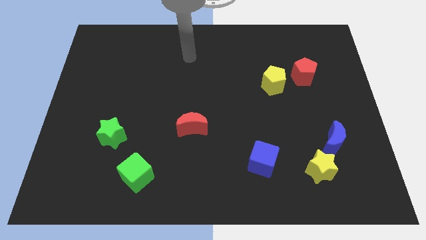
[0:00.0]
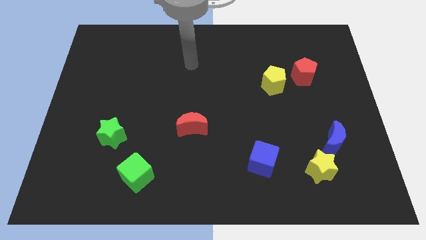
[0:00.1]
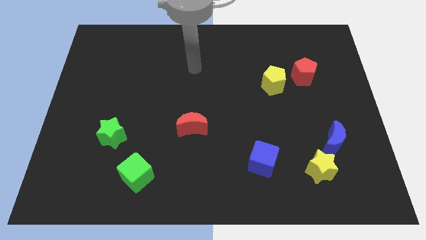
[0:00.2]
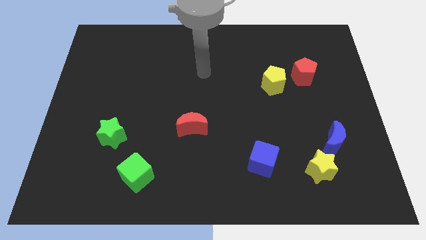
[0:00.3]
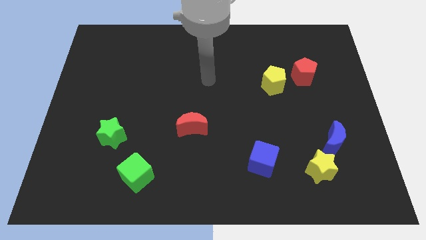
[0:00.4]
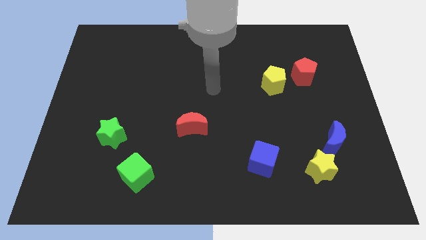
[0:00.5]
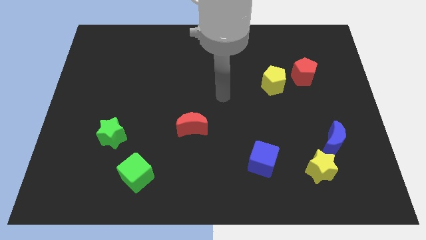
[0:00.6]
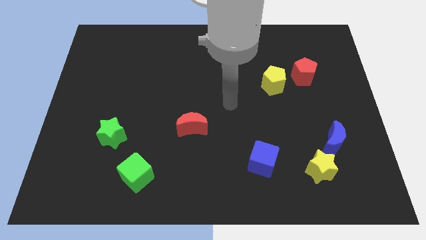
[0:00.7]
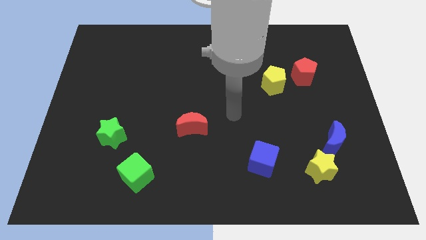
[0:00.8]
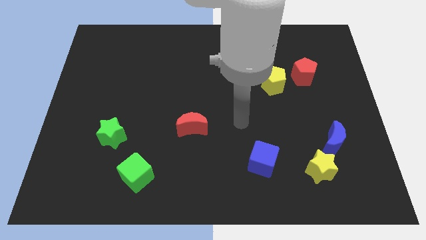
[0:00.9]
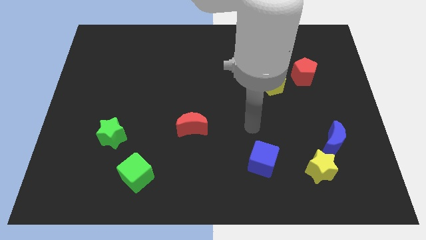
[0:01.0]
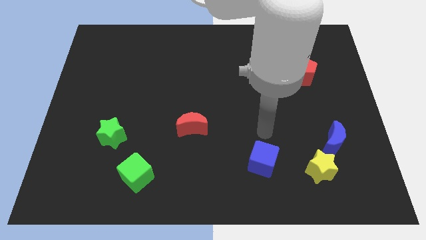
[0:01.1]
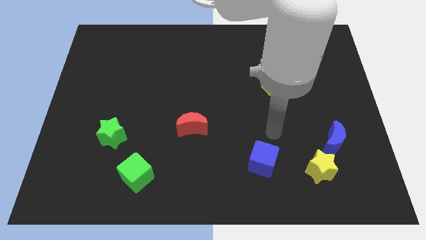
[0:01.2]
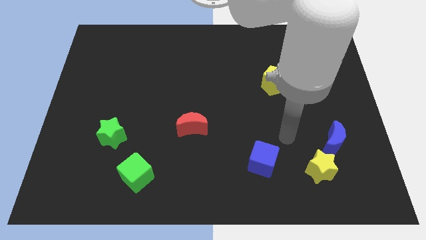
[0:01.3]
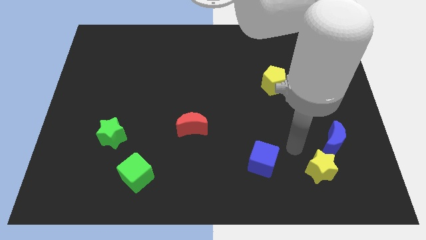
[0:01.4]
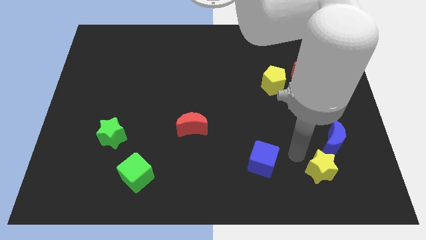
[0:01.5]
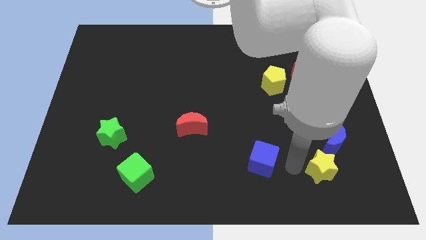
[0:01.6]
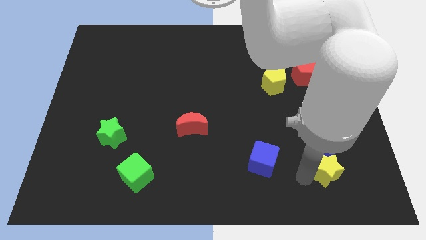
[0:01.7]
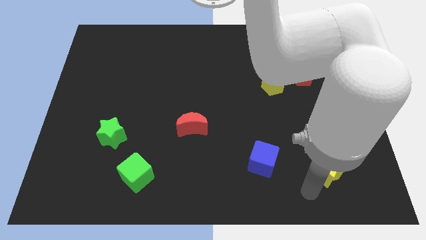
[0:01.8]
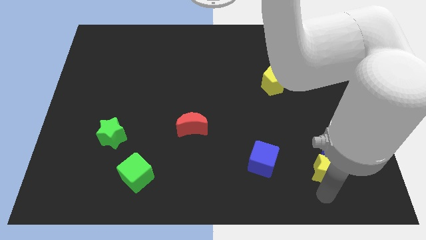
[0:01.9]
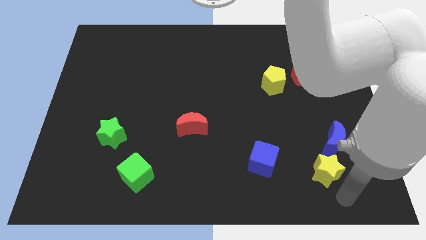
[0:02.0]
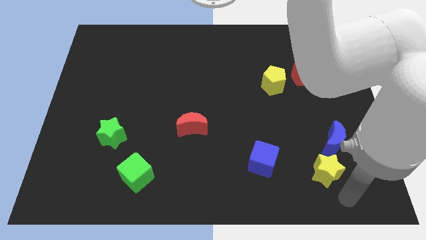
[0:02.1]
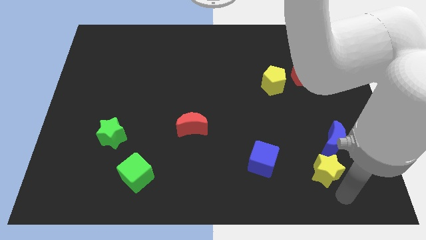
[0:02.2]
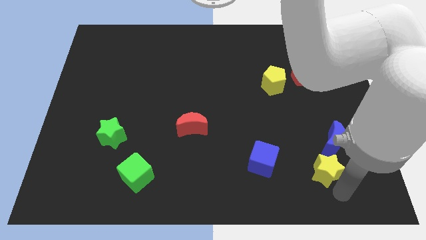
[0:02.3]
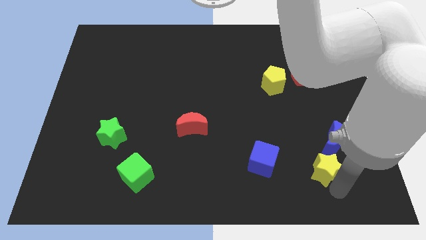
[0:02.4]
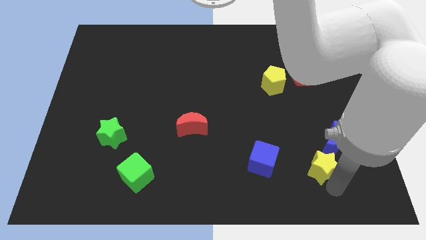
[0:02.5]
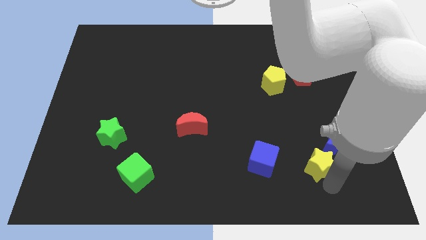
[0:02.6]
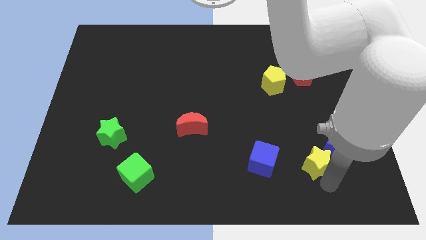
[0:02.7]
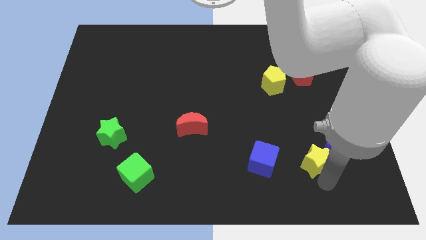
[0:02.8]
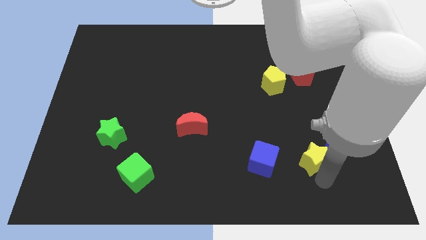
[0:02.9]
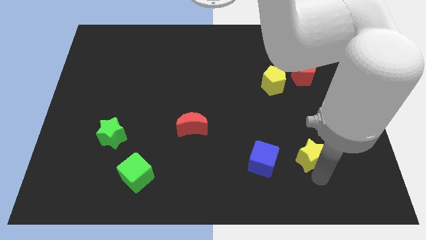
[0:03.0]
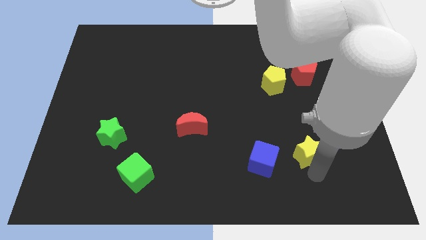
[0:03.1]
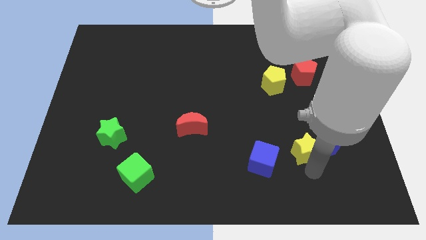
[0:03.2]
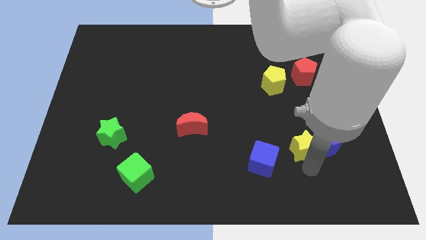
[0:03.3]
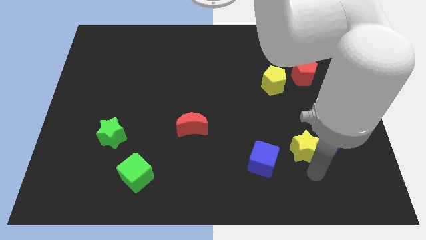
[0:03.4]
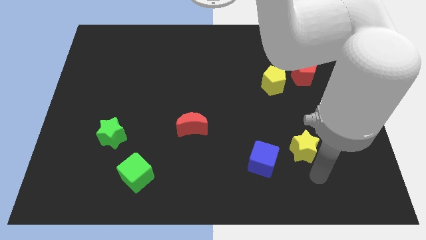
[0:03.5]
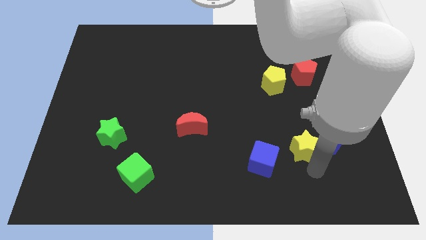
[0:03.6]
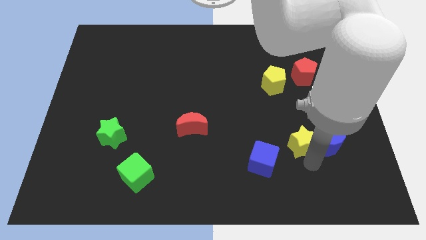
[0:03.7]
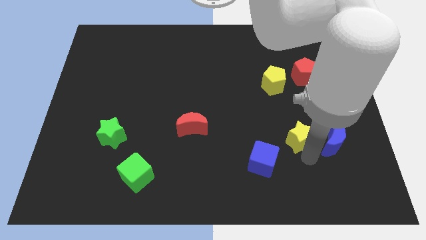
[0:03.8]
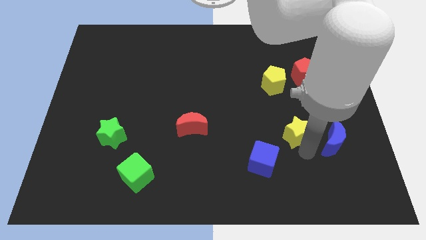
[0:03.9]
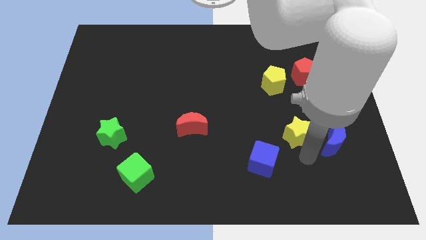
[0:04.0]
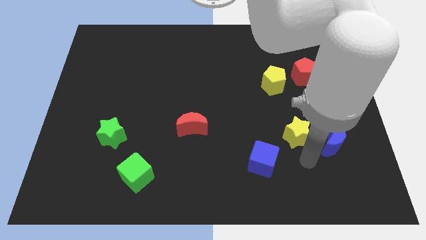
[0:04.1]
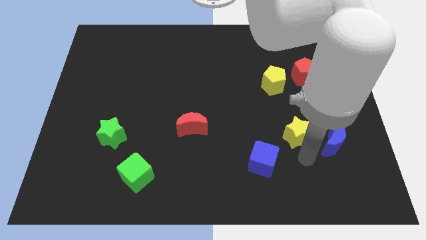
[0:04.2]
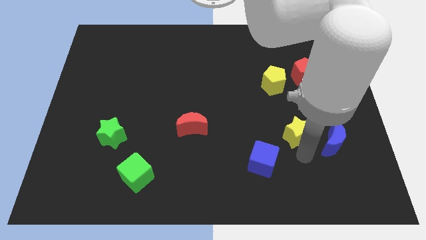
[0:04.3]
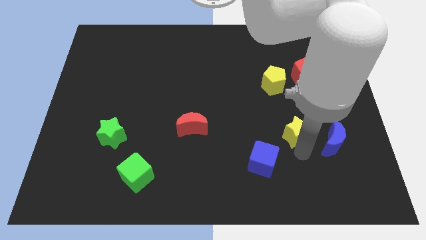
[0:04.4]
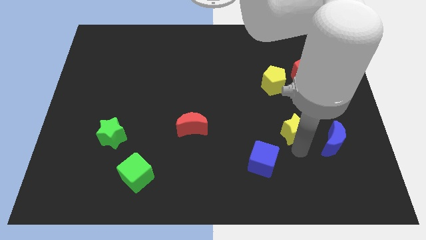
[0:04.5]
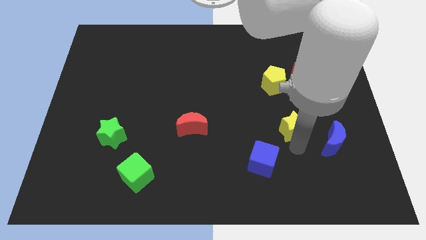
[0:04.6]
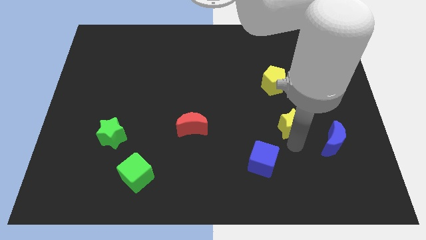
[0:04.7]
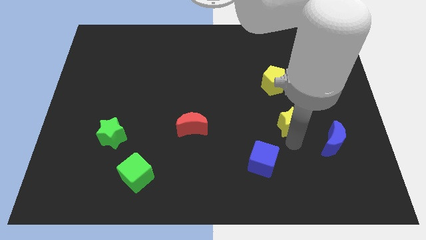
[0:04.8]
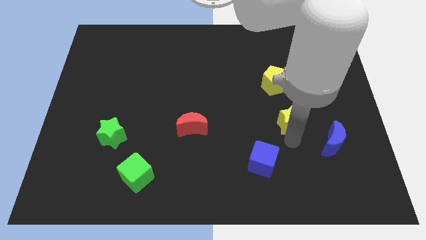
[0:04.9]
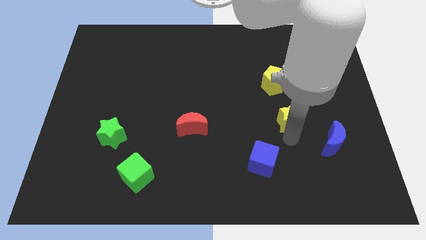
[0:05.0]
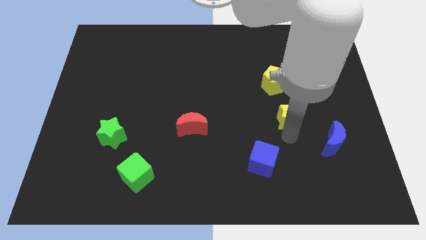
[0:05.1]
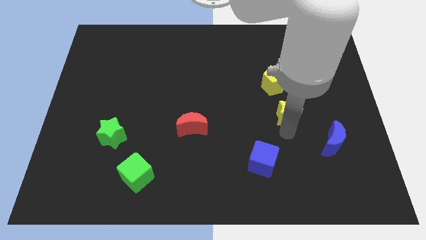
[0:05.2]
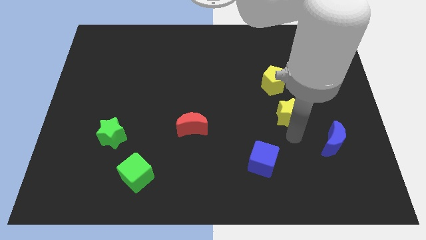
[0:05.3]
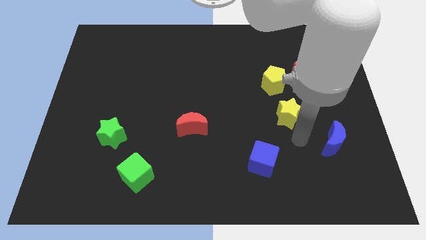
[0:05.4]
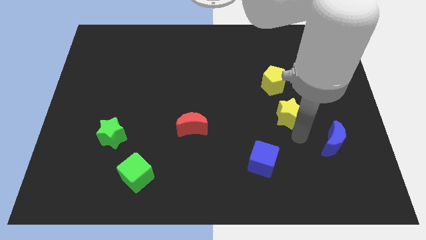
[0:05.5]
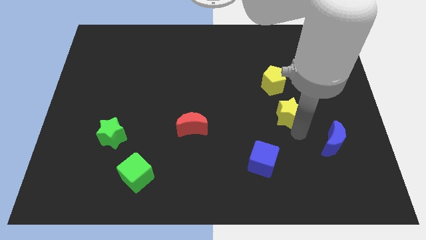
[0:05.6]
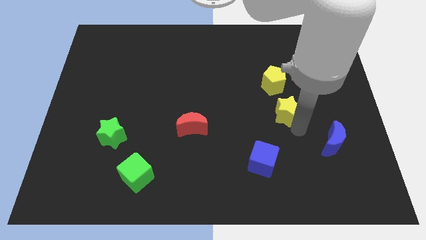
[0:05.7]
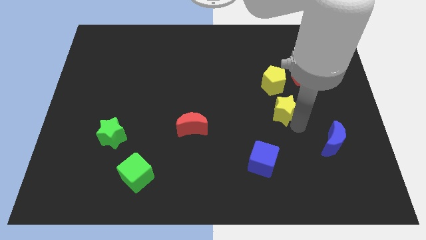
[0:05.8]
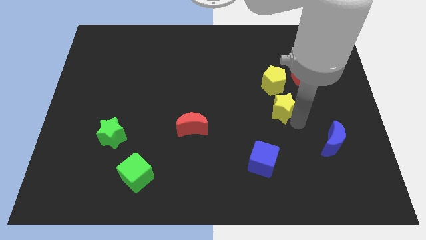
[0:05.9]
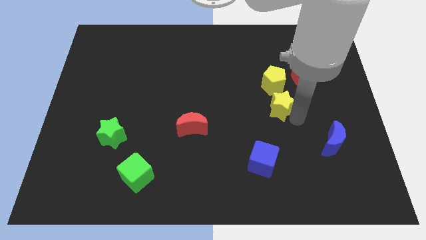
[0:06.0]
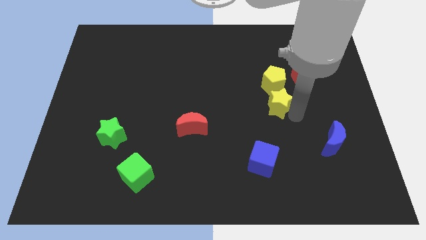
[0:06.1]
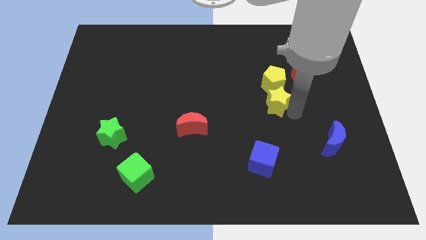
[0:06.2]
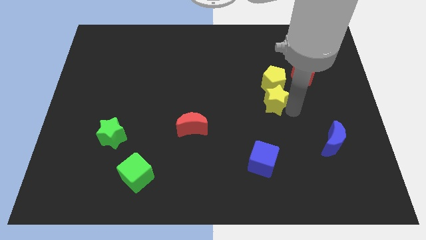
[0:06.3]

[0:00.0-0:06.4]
slide the yellow star next to the yellow pentagon

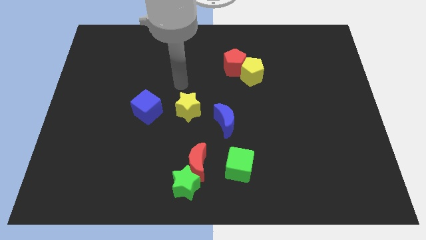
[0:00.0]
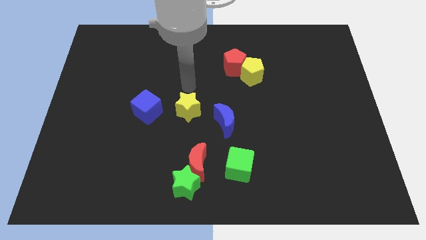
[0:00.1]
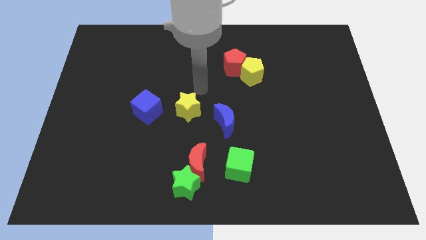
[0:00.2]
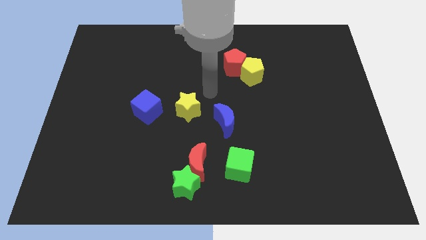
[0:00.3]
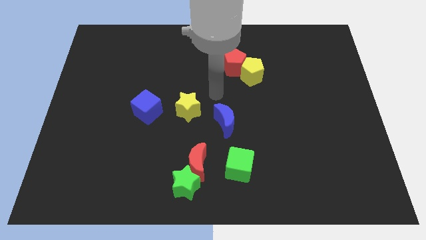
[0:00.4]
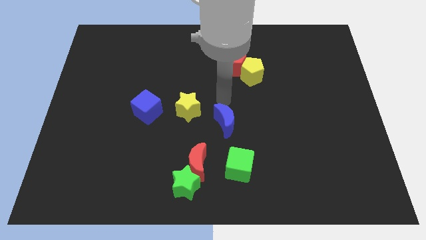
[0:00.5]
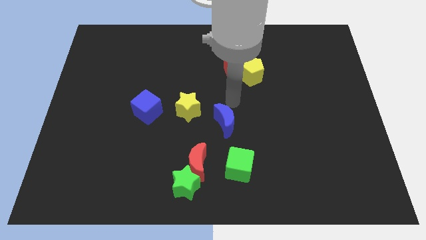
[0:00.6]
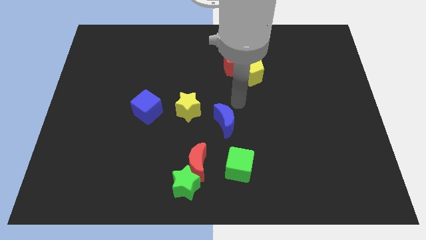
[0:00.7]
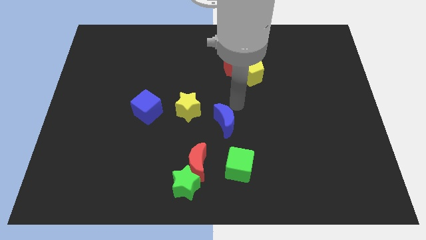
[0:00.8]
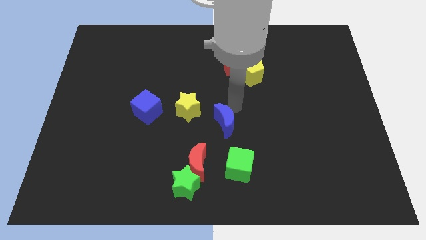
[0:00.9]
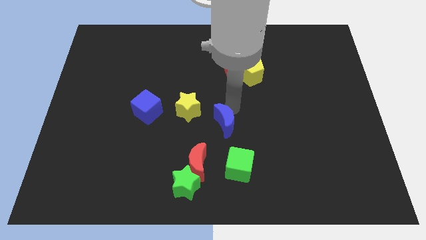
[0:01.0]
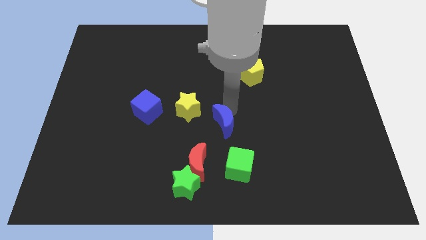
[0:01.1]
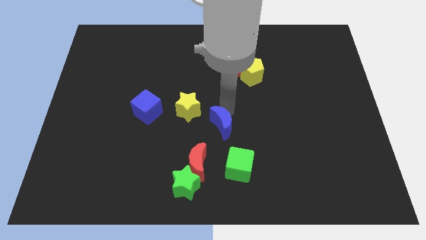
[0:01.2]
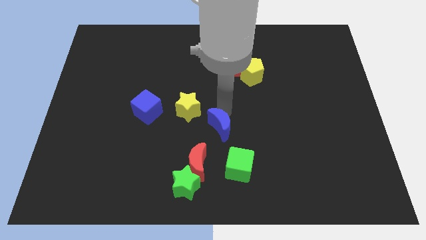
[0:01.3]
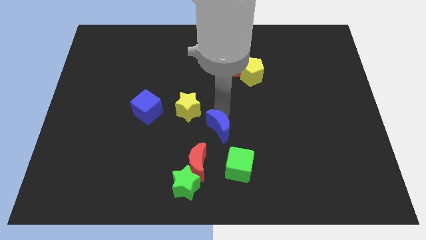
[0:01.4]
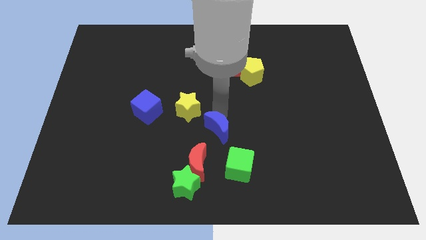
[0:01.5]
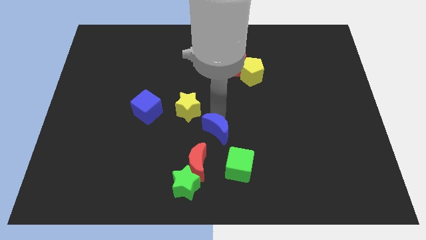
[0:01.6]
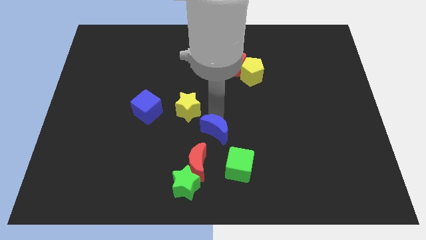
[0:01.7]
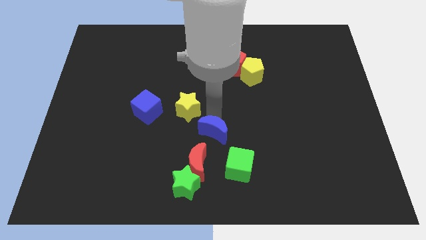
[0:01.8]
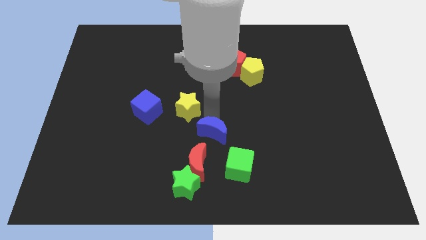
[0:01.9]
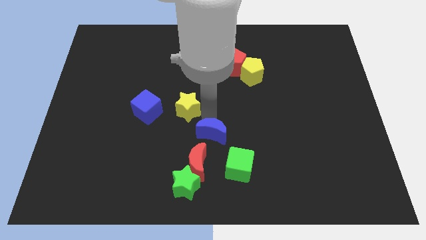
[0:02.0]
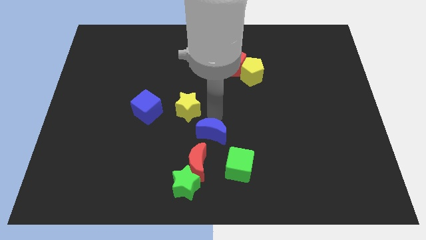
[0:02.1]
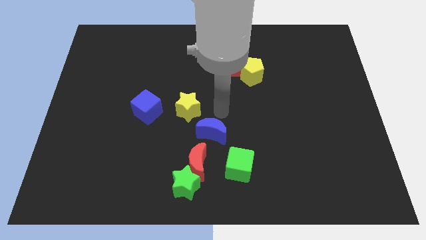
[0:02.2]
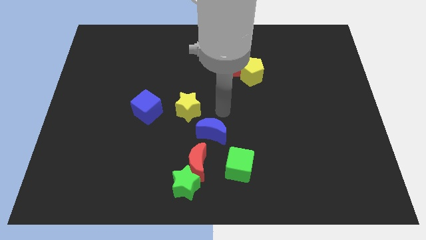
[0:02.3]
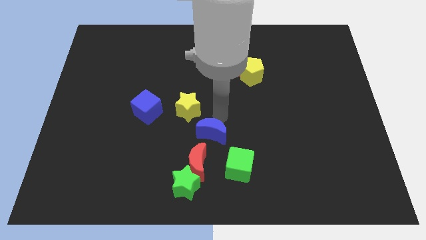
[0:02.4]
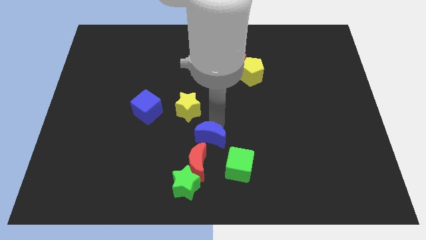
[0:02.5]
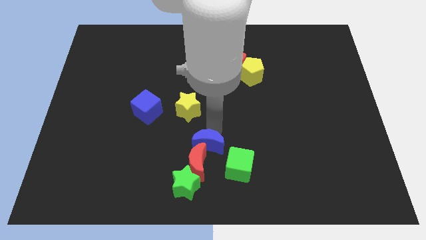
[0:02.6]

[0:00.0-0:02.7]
push the blue moon towards the red moon
